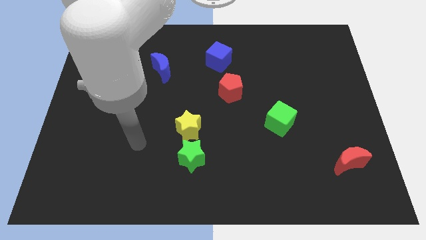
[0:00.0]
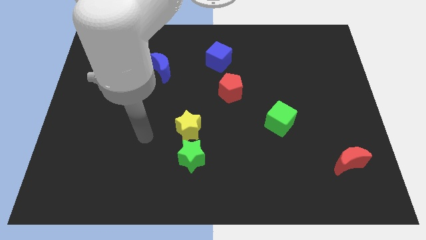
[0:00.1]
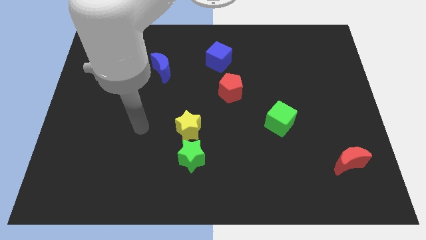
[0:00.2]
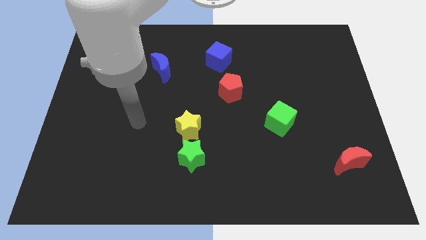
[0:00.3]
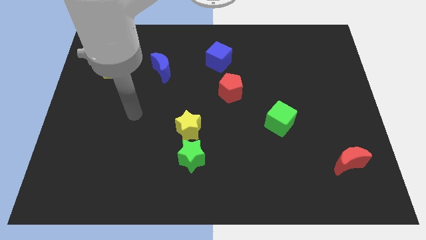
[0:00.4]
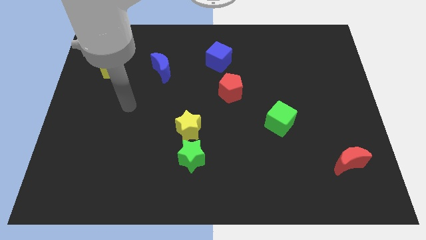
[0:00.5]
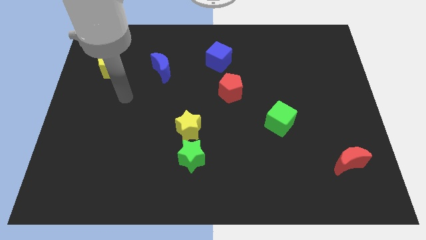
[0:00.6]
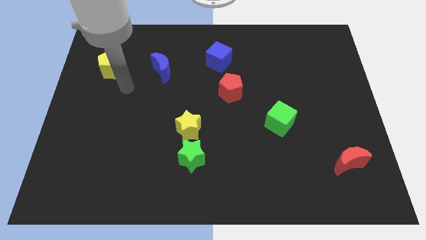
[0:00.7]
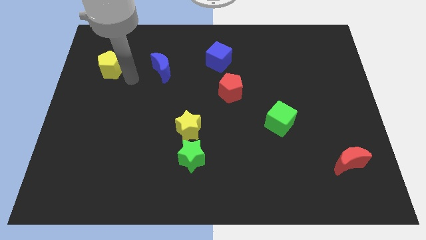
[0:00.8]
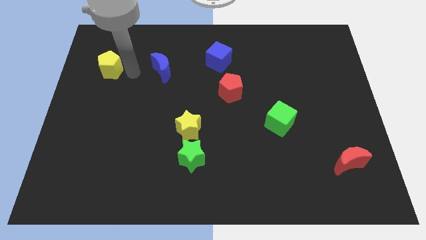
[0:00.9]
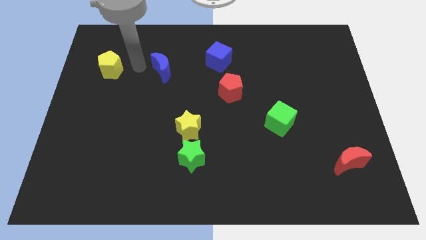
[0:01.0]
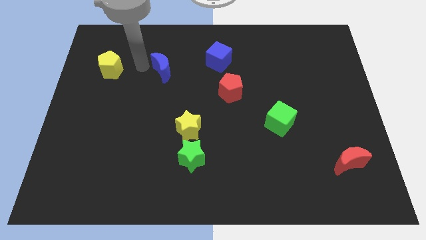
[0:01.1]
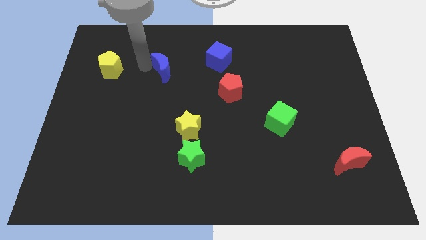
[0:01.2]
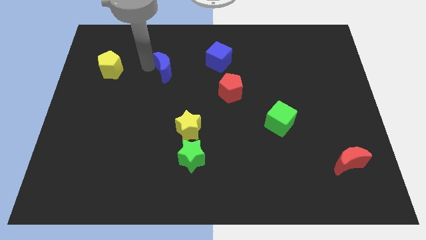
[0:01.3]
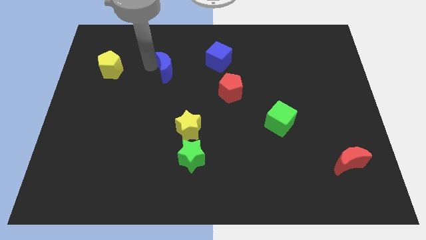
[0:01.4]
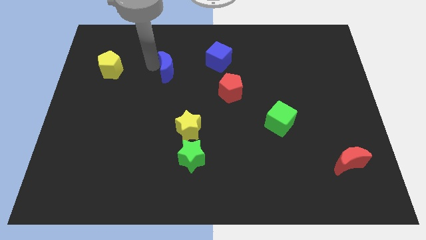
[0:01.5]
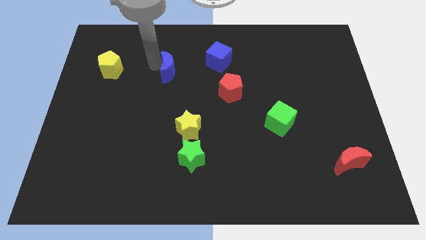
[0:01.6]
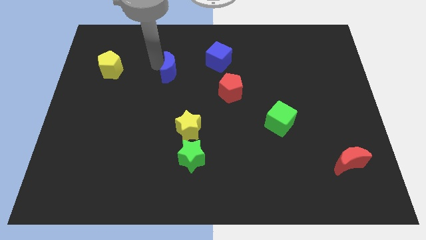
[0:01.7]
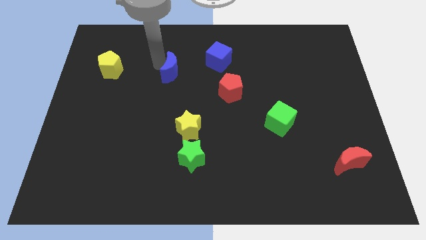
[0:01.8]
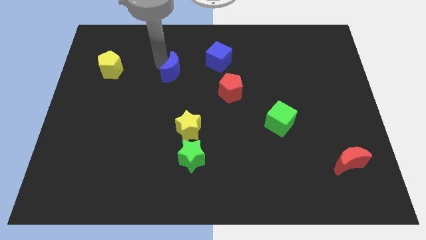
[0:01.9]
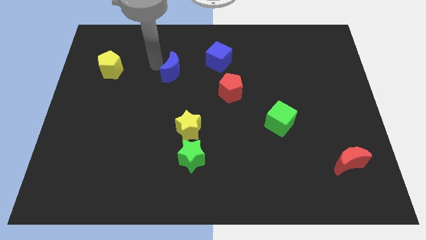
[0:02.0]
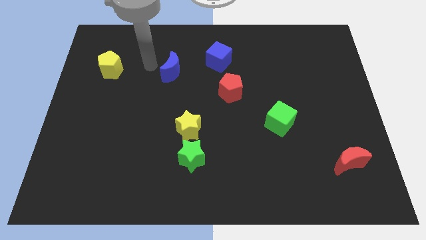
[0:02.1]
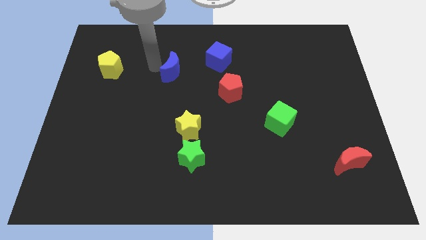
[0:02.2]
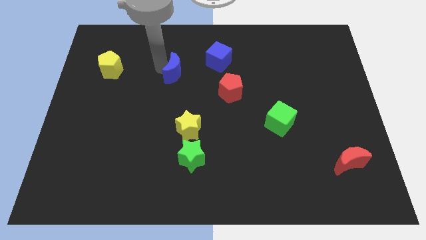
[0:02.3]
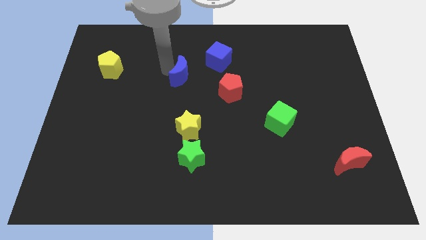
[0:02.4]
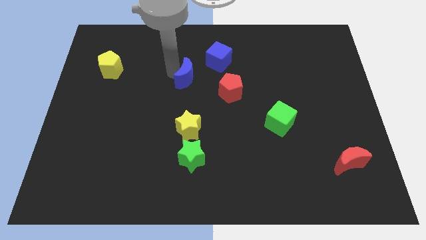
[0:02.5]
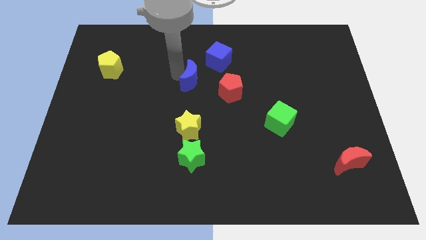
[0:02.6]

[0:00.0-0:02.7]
push the blue moon right a bit

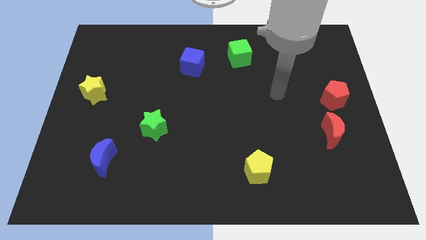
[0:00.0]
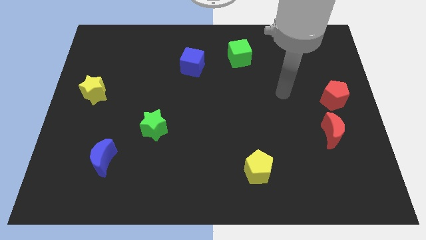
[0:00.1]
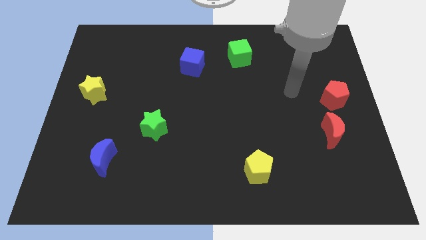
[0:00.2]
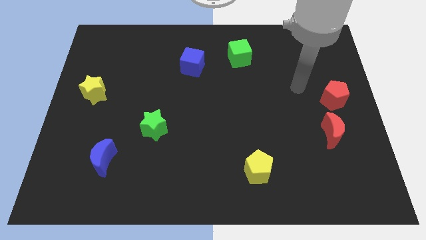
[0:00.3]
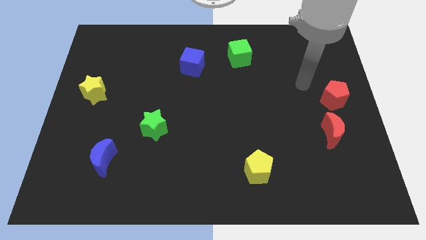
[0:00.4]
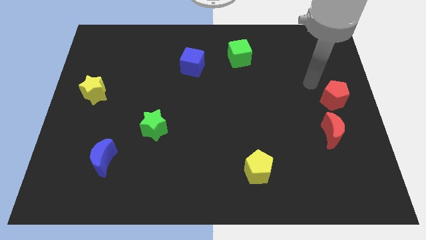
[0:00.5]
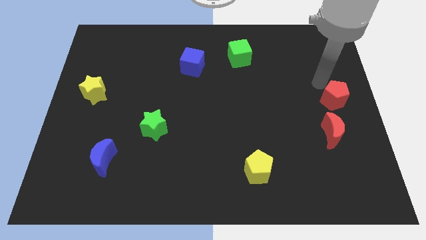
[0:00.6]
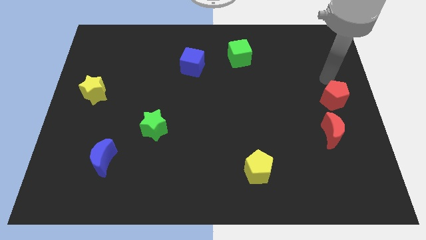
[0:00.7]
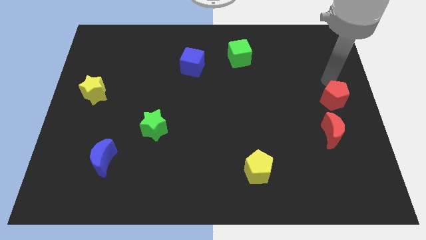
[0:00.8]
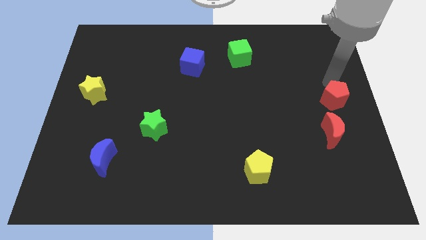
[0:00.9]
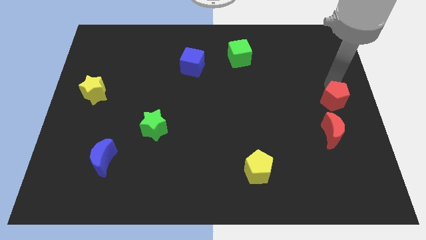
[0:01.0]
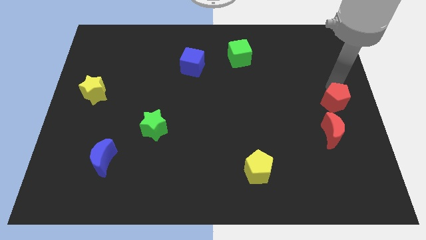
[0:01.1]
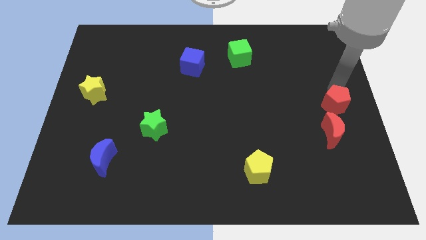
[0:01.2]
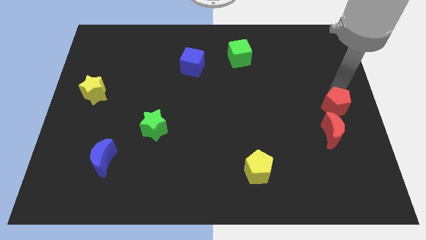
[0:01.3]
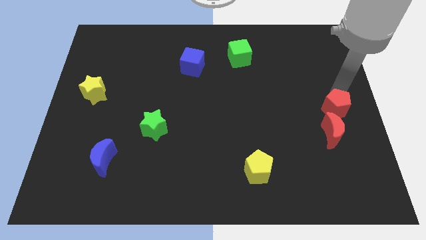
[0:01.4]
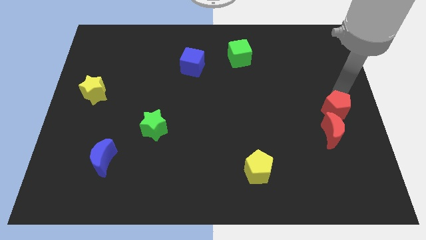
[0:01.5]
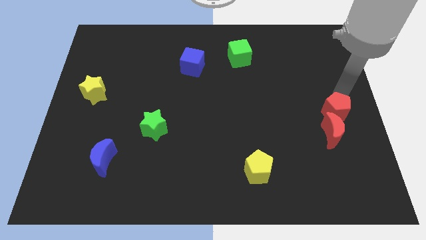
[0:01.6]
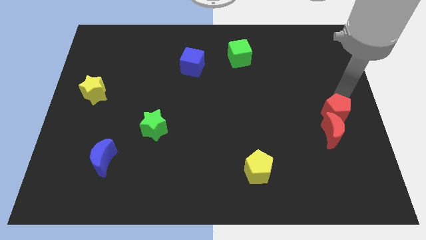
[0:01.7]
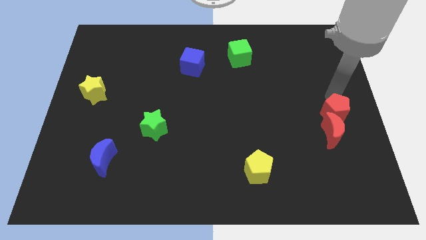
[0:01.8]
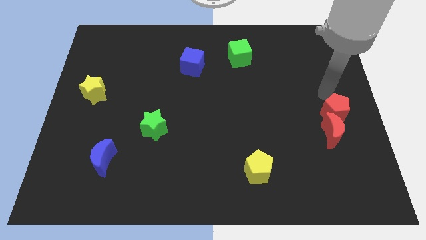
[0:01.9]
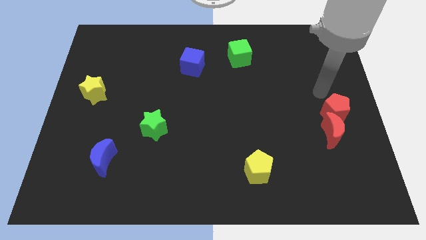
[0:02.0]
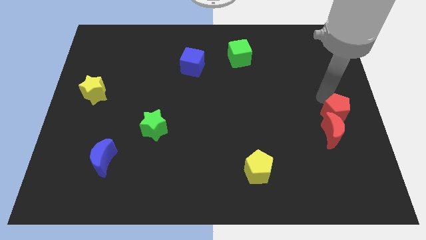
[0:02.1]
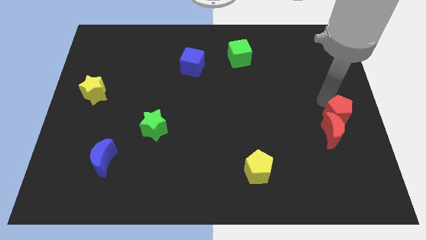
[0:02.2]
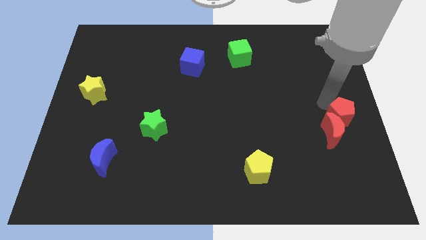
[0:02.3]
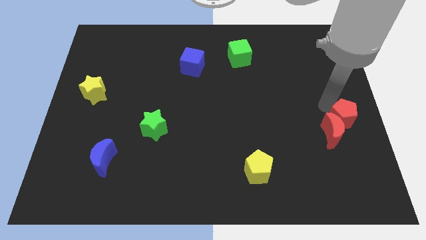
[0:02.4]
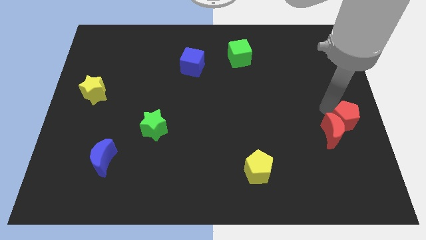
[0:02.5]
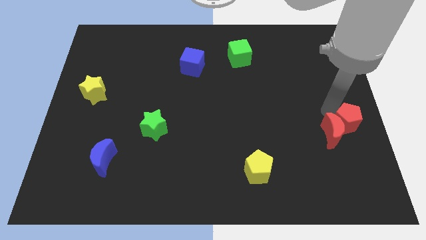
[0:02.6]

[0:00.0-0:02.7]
slide the red pentagon downwards somewhat

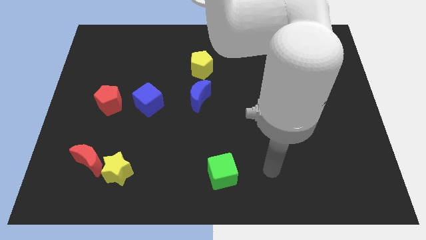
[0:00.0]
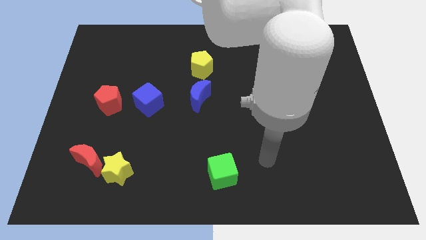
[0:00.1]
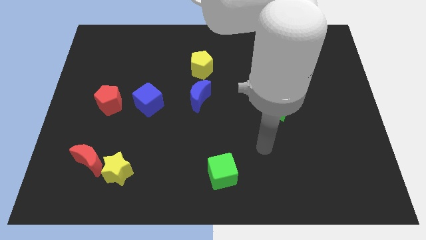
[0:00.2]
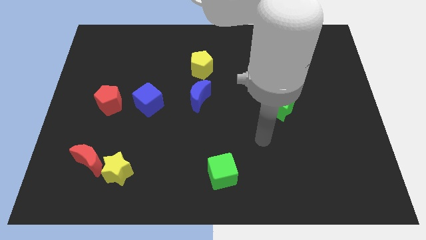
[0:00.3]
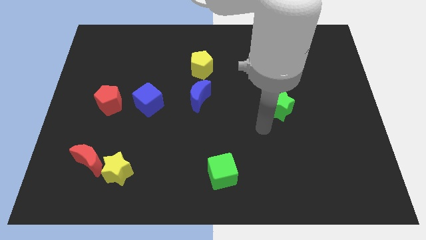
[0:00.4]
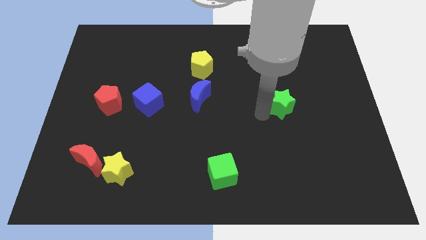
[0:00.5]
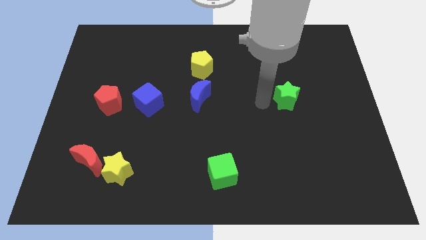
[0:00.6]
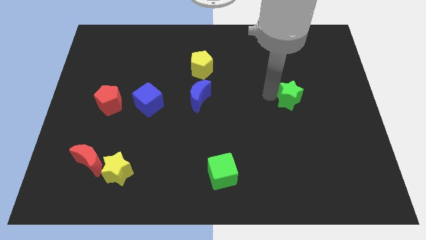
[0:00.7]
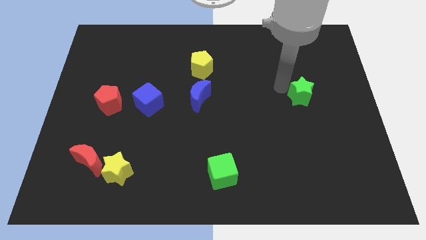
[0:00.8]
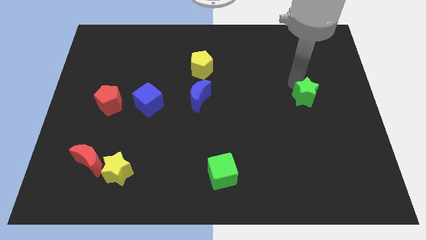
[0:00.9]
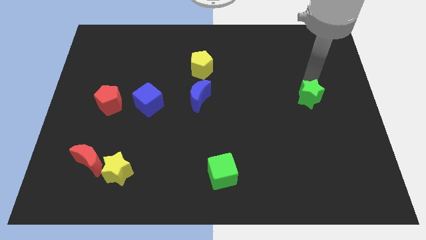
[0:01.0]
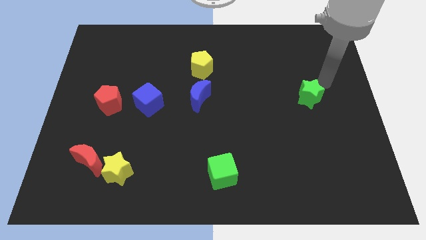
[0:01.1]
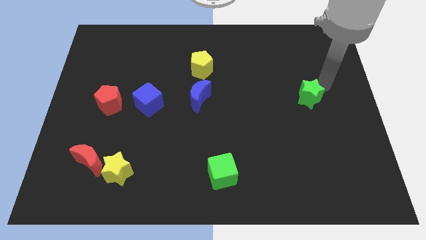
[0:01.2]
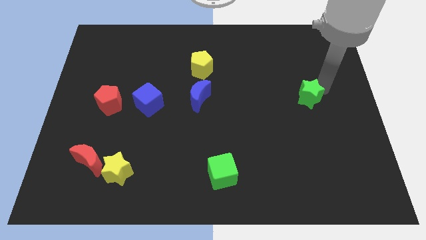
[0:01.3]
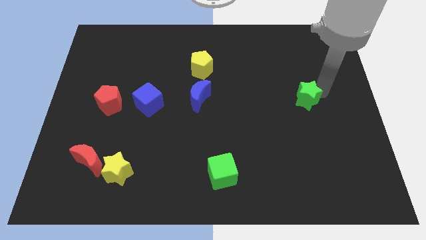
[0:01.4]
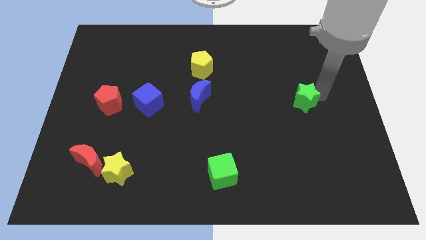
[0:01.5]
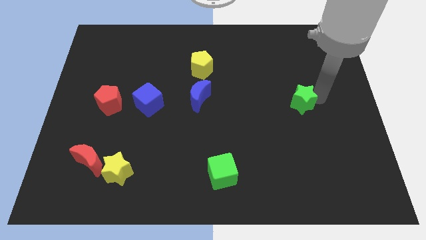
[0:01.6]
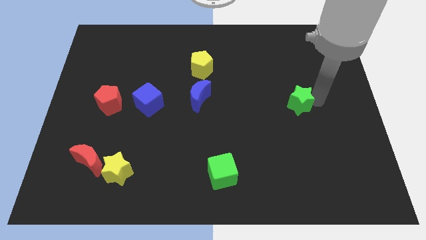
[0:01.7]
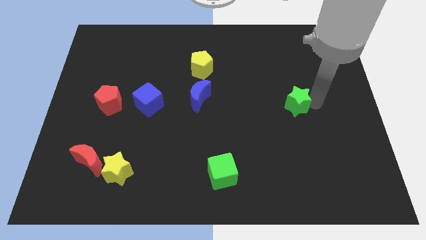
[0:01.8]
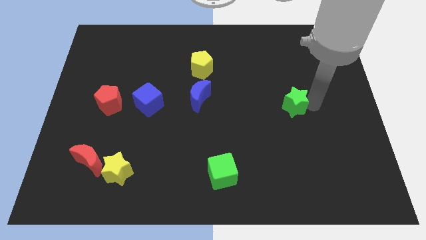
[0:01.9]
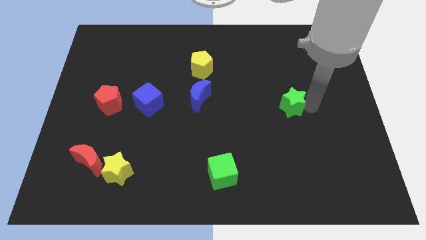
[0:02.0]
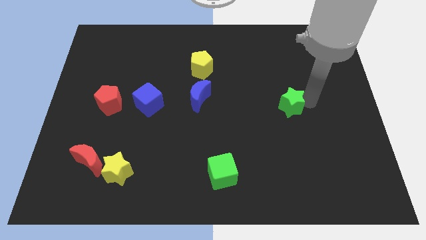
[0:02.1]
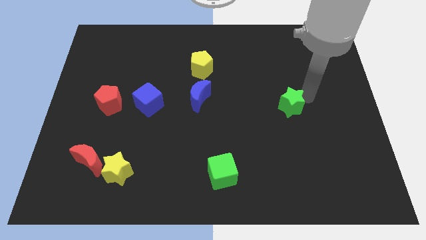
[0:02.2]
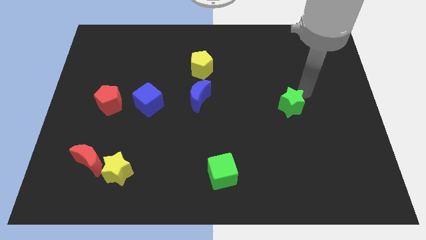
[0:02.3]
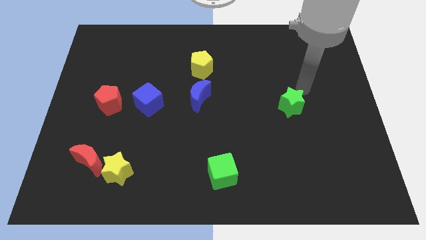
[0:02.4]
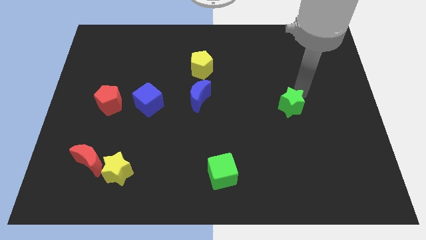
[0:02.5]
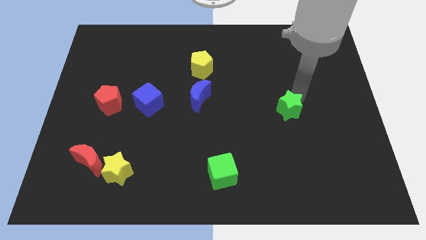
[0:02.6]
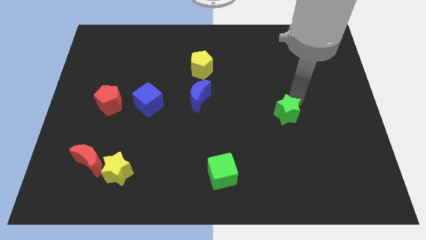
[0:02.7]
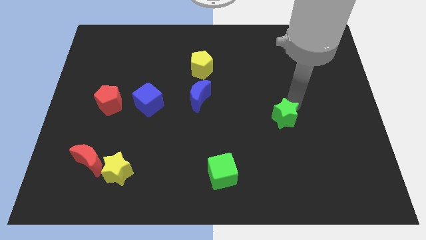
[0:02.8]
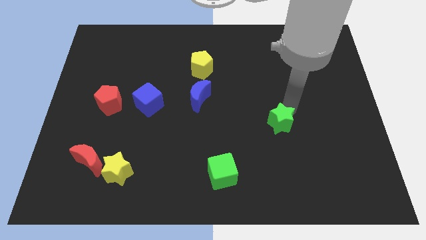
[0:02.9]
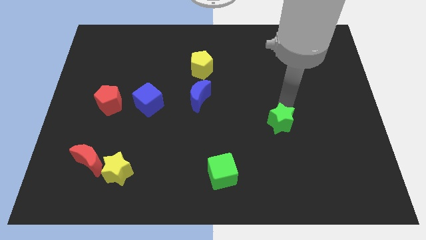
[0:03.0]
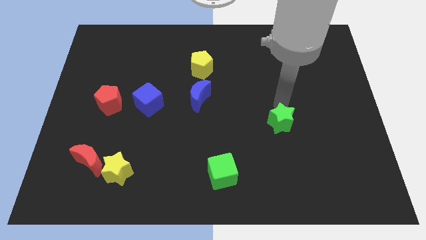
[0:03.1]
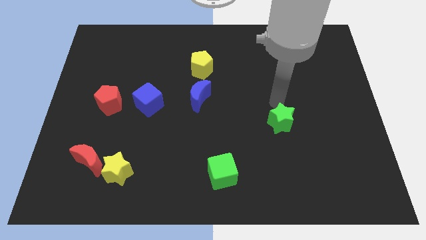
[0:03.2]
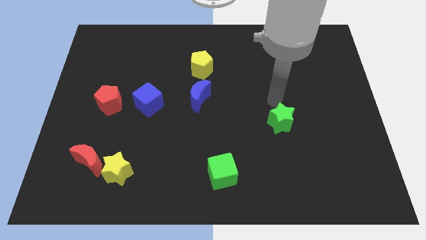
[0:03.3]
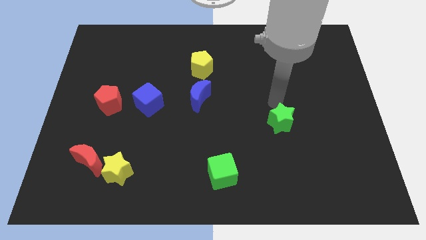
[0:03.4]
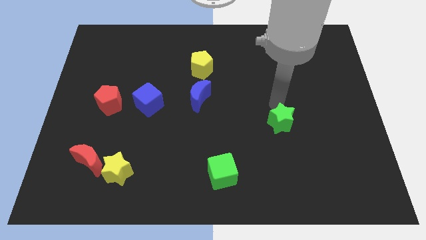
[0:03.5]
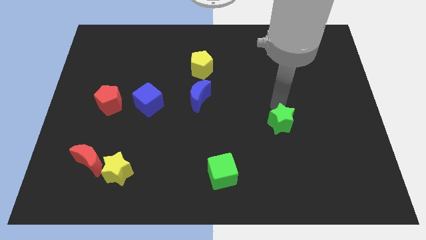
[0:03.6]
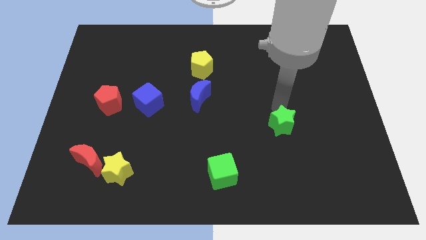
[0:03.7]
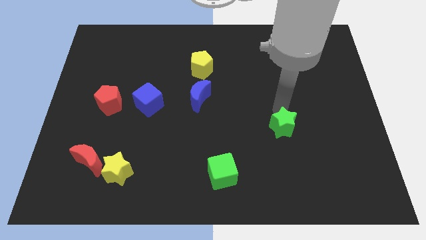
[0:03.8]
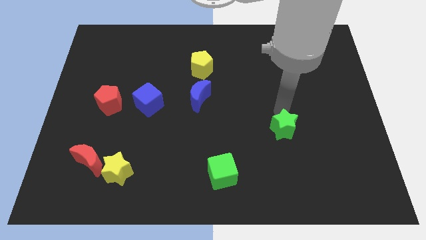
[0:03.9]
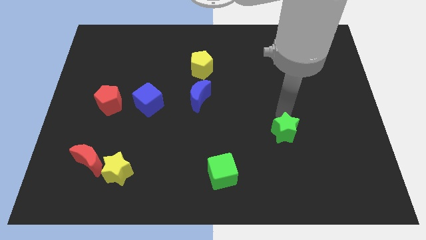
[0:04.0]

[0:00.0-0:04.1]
slide the green star downwards a little bit
